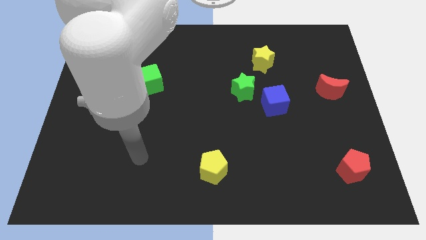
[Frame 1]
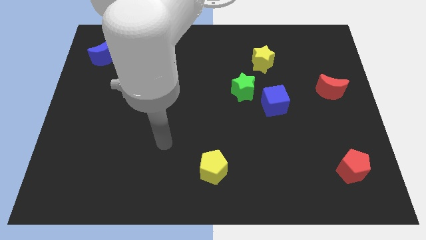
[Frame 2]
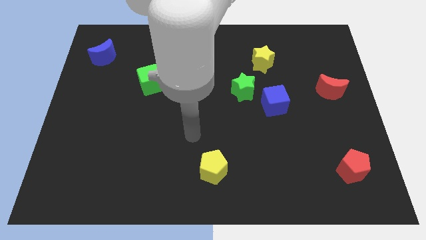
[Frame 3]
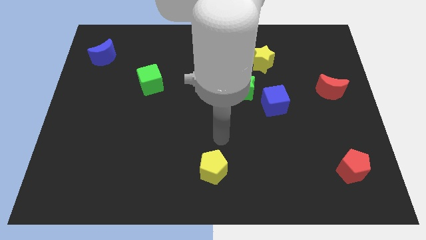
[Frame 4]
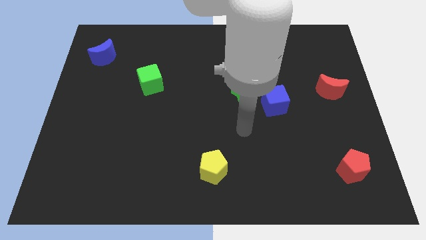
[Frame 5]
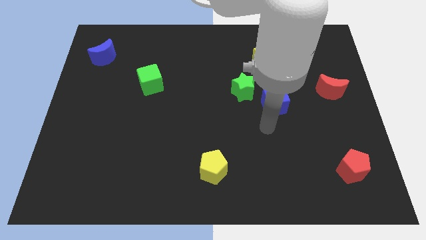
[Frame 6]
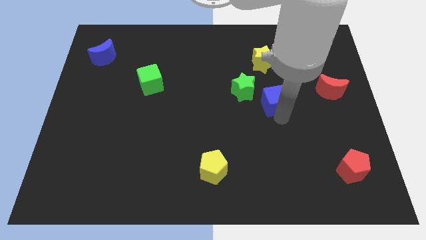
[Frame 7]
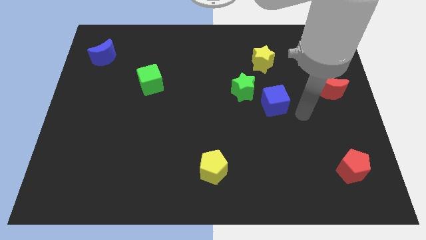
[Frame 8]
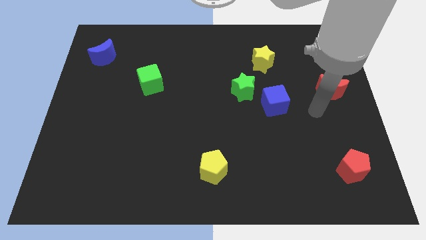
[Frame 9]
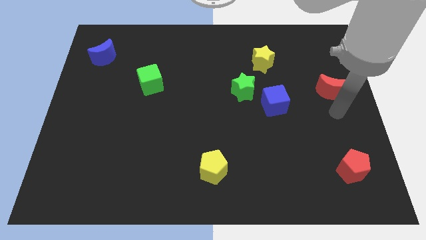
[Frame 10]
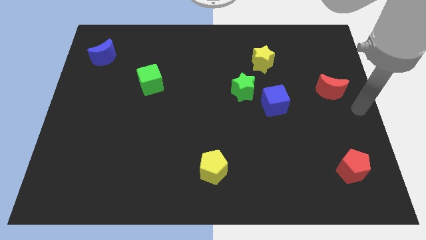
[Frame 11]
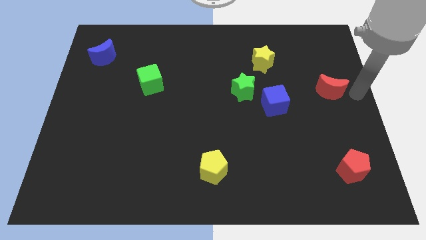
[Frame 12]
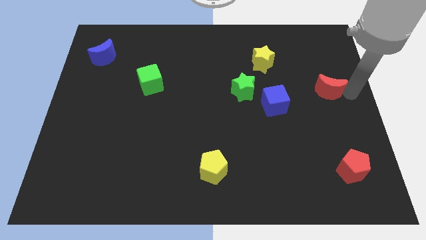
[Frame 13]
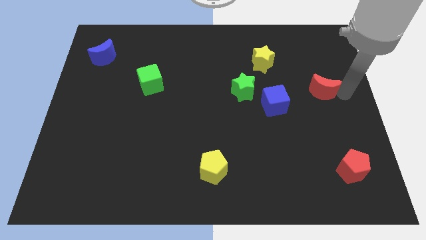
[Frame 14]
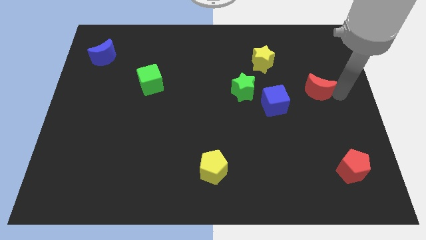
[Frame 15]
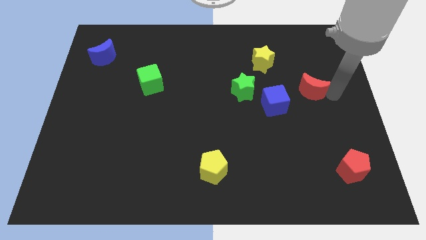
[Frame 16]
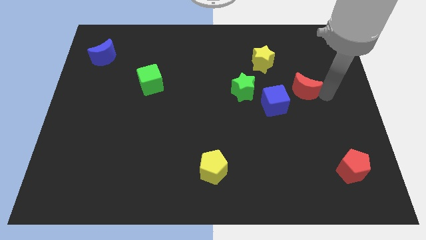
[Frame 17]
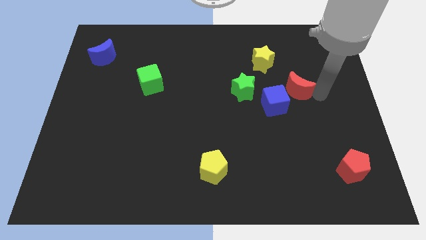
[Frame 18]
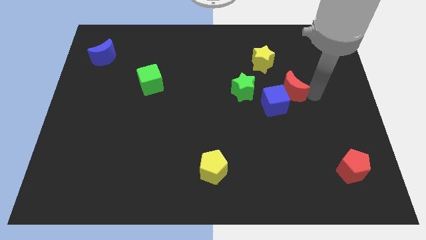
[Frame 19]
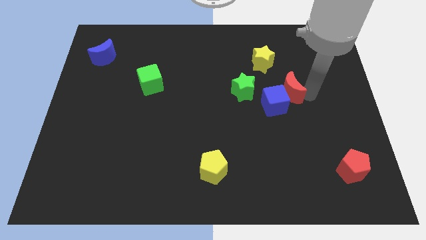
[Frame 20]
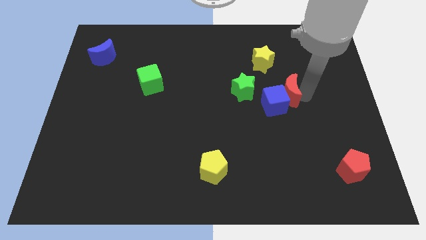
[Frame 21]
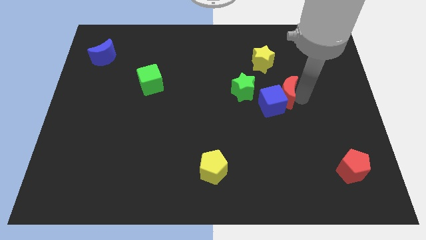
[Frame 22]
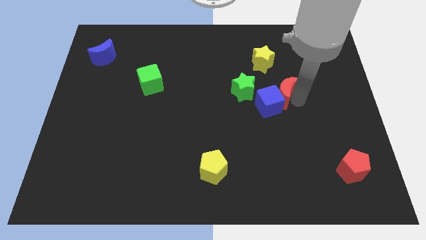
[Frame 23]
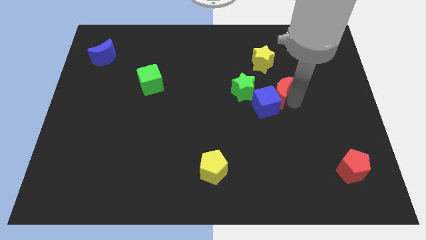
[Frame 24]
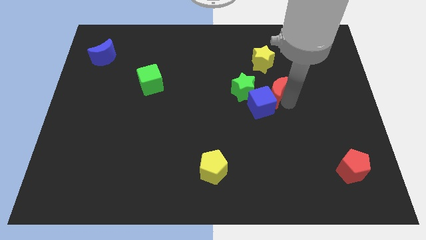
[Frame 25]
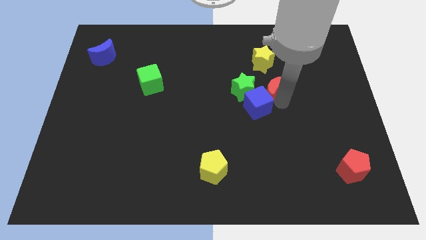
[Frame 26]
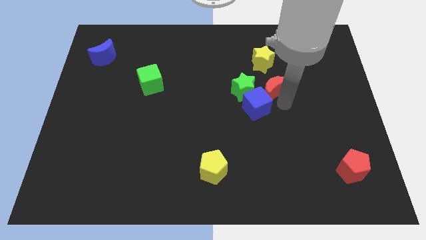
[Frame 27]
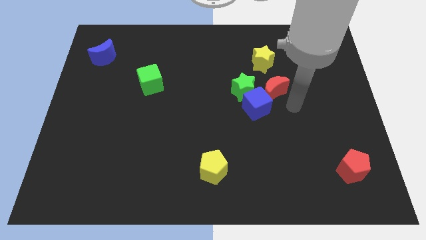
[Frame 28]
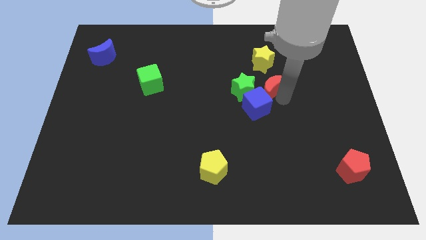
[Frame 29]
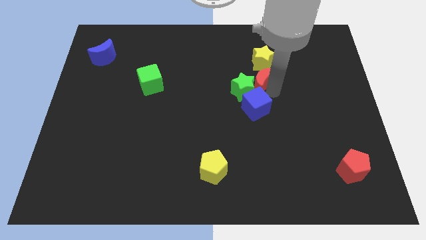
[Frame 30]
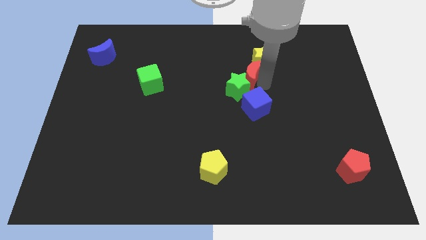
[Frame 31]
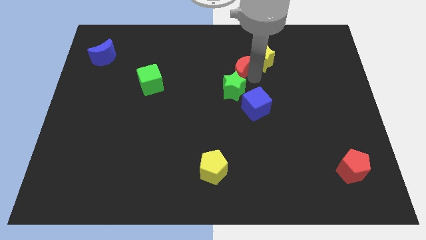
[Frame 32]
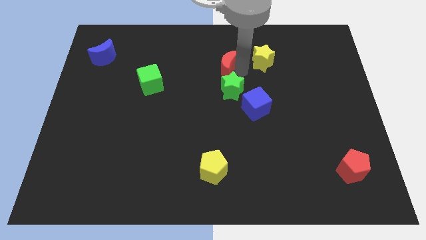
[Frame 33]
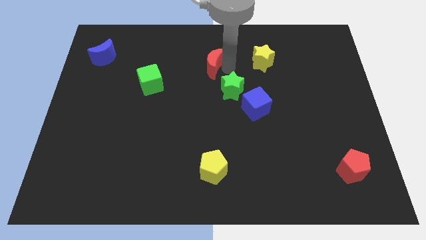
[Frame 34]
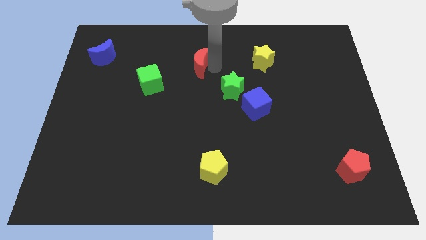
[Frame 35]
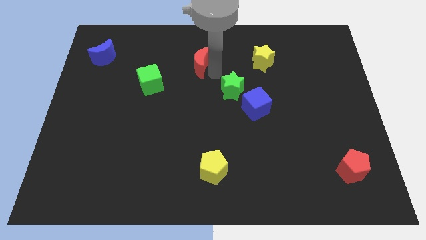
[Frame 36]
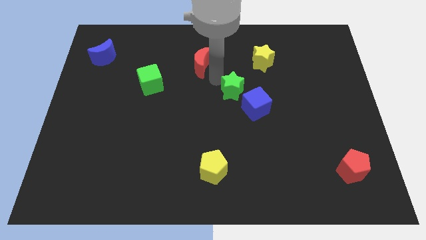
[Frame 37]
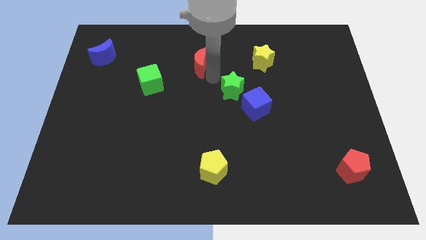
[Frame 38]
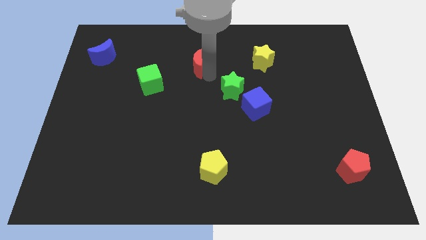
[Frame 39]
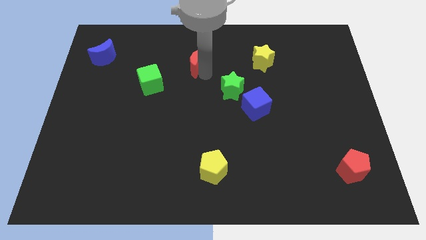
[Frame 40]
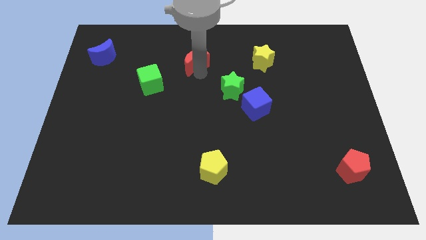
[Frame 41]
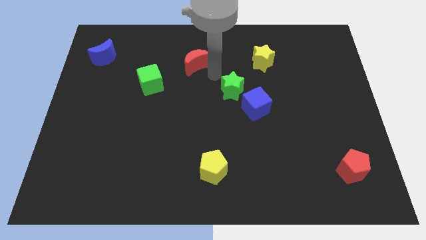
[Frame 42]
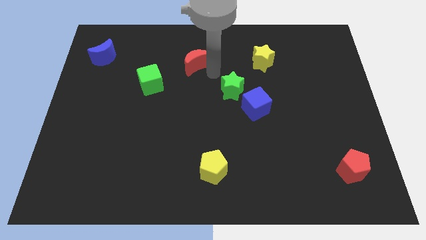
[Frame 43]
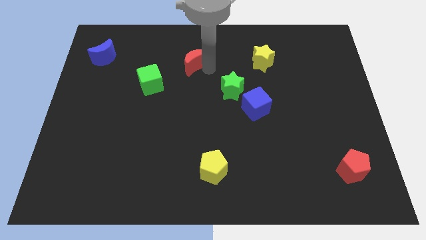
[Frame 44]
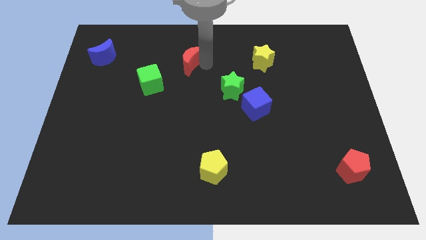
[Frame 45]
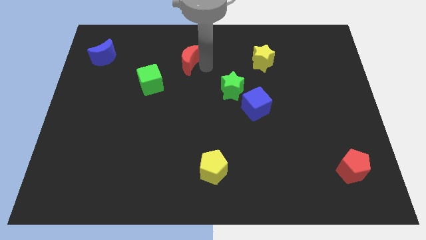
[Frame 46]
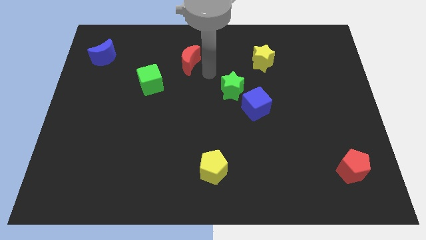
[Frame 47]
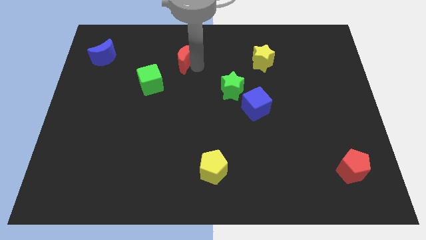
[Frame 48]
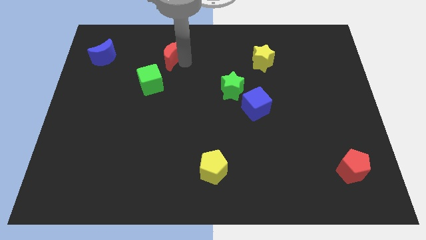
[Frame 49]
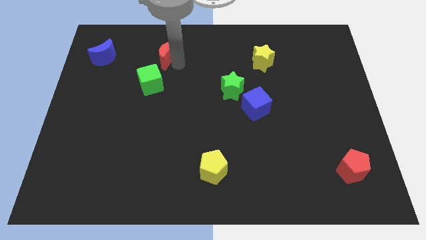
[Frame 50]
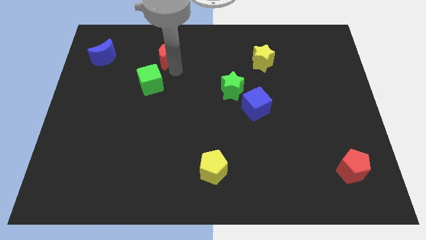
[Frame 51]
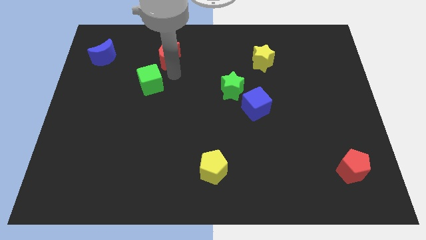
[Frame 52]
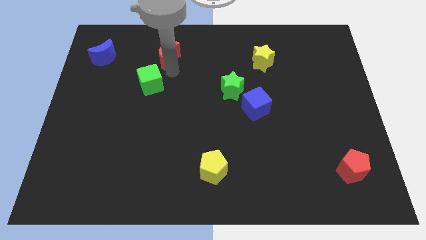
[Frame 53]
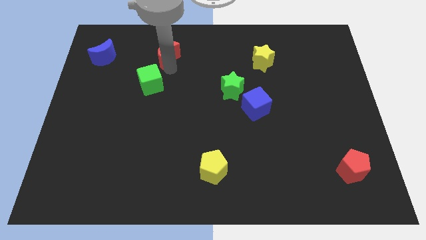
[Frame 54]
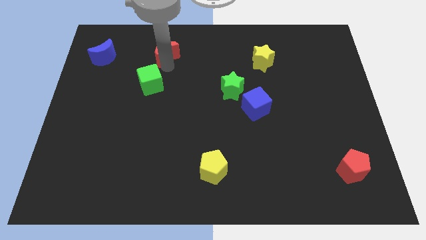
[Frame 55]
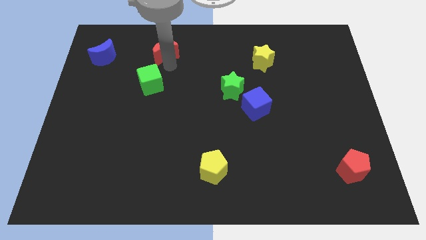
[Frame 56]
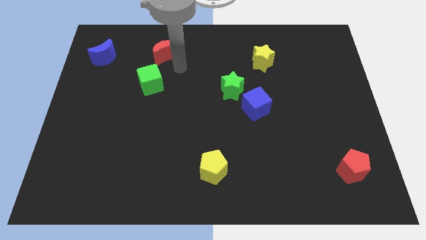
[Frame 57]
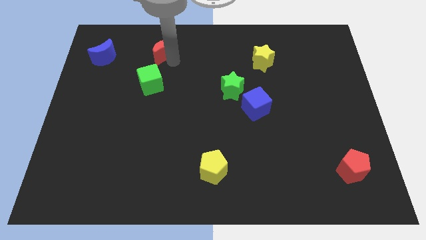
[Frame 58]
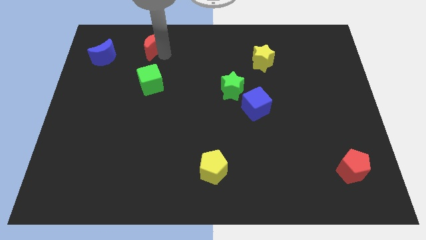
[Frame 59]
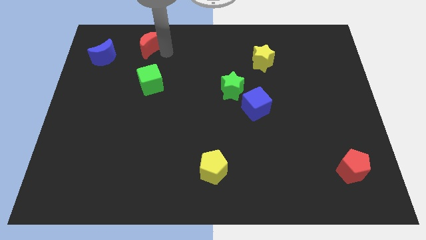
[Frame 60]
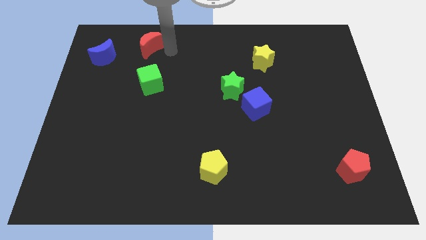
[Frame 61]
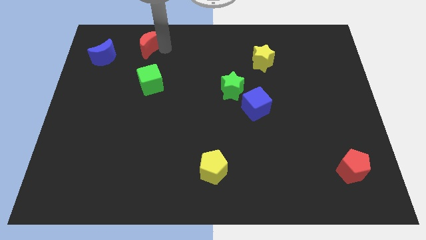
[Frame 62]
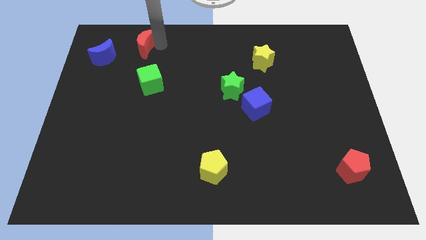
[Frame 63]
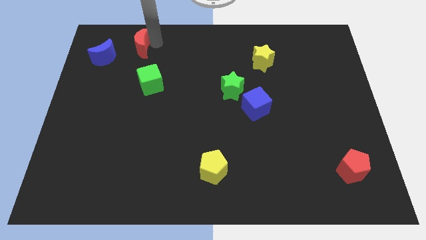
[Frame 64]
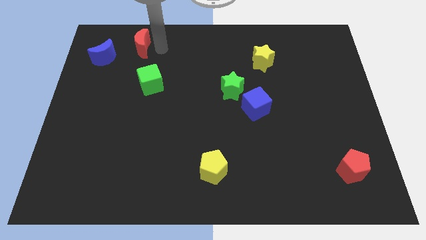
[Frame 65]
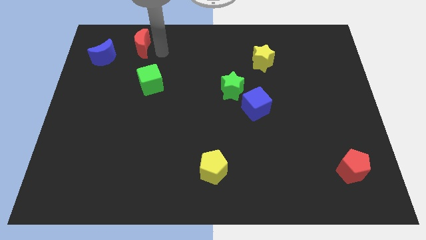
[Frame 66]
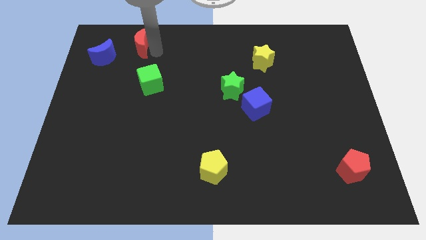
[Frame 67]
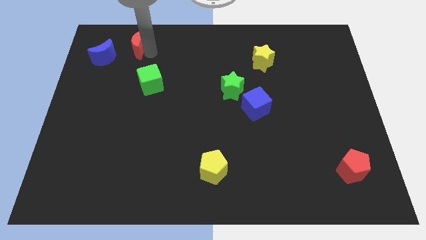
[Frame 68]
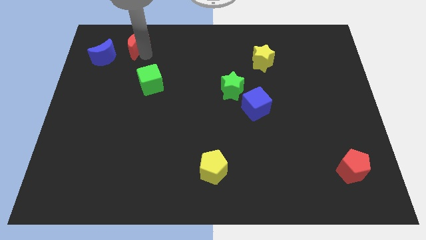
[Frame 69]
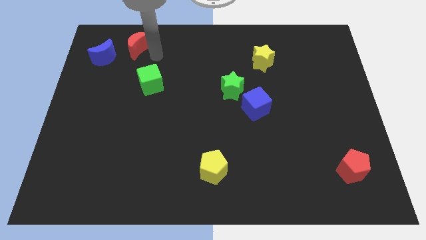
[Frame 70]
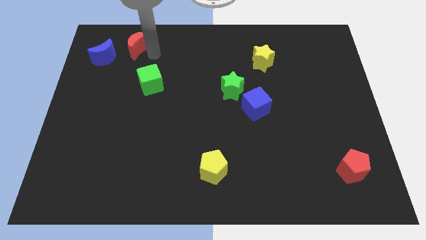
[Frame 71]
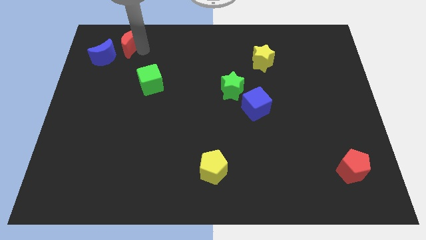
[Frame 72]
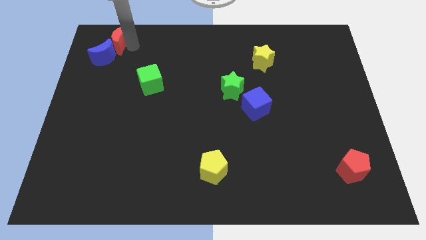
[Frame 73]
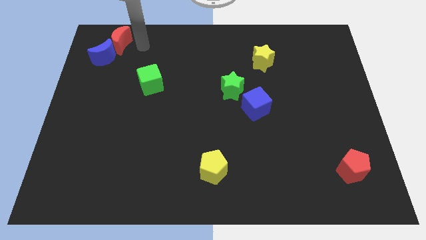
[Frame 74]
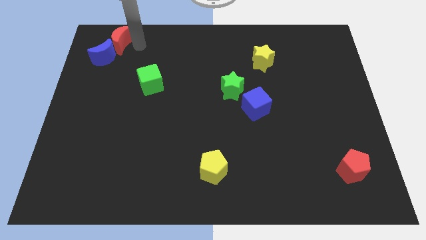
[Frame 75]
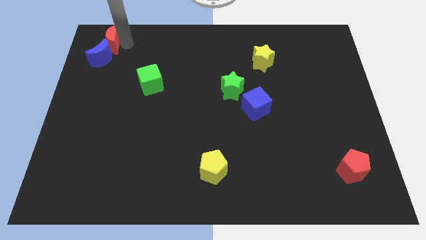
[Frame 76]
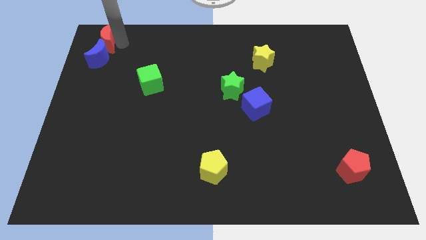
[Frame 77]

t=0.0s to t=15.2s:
move the red moon to the upper left corner
